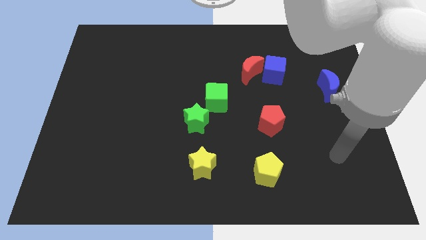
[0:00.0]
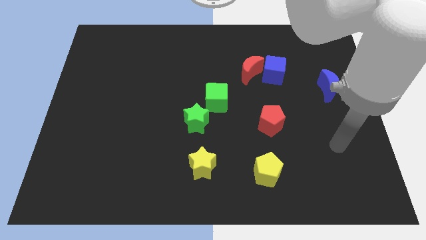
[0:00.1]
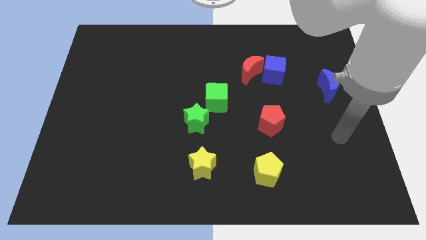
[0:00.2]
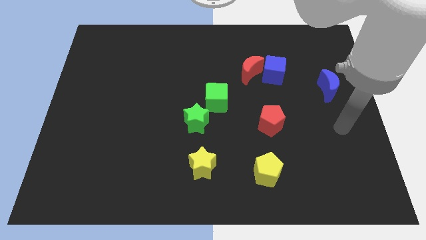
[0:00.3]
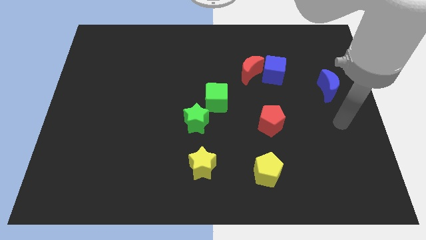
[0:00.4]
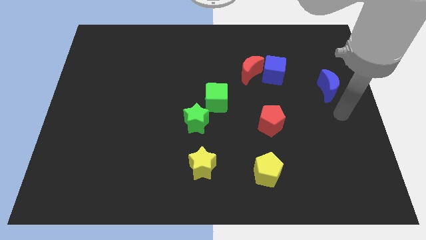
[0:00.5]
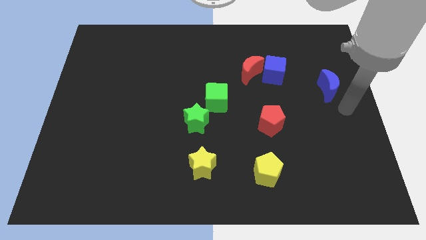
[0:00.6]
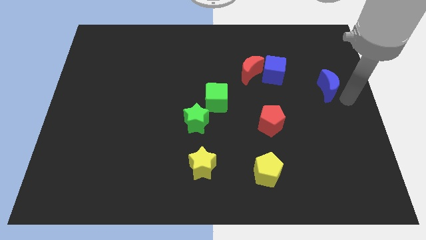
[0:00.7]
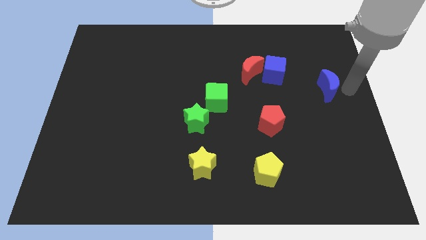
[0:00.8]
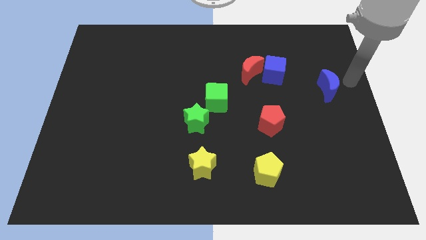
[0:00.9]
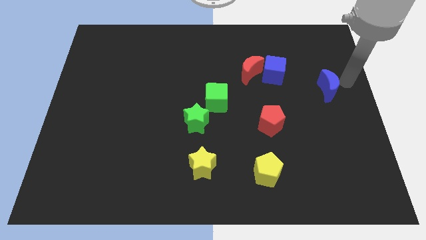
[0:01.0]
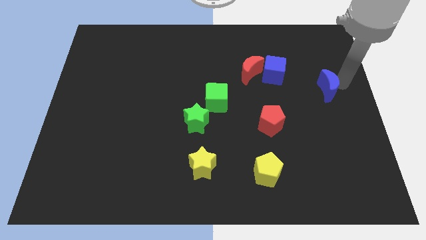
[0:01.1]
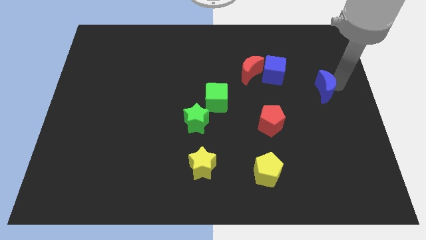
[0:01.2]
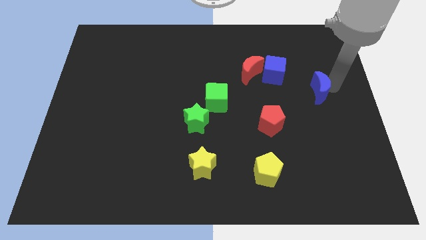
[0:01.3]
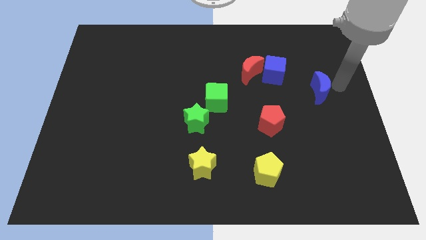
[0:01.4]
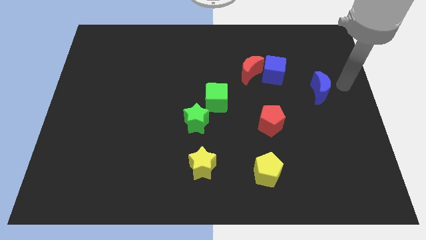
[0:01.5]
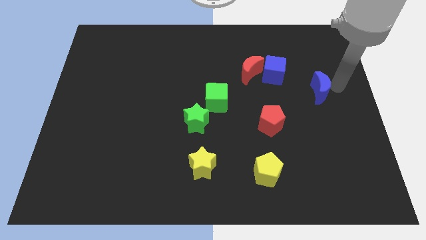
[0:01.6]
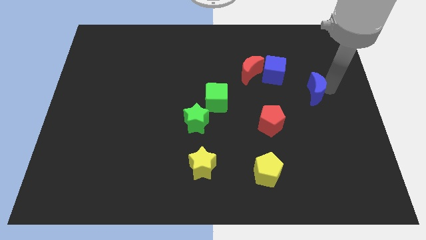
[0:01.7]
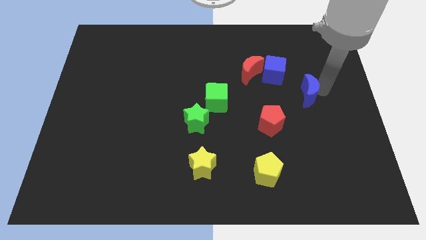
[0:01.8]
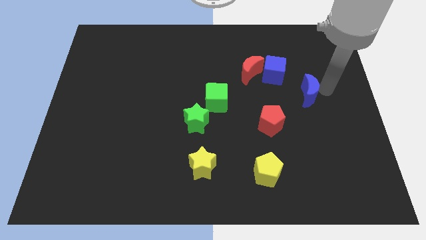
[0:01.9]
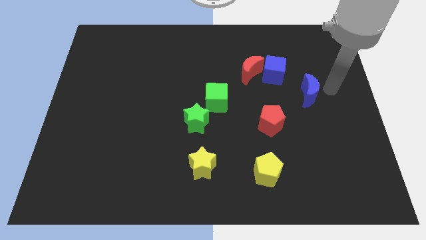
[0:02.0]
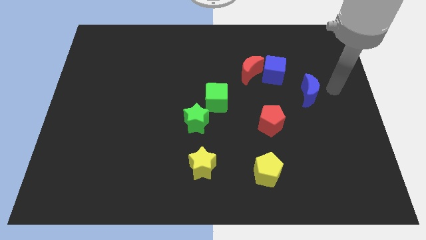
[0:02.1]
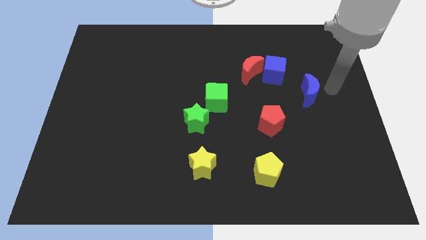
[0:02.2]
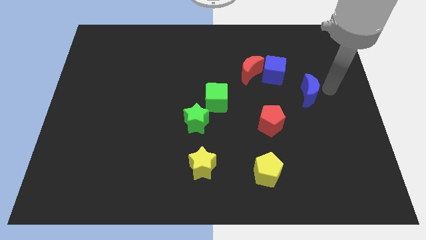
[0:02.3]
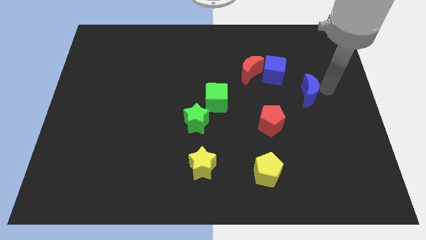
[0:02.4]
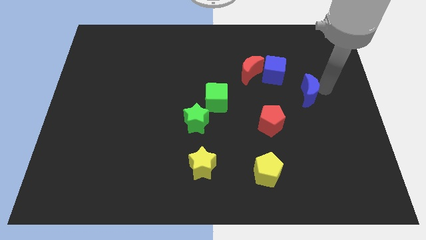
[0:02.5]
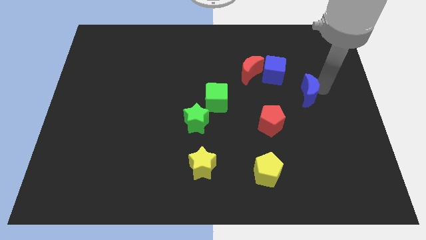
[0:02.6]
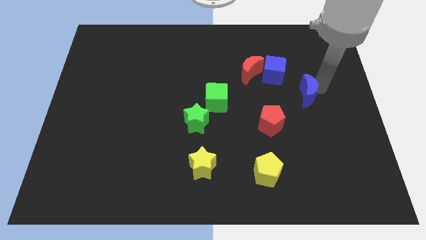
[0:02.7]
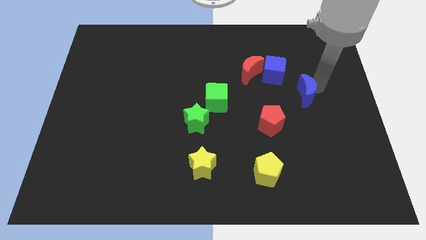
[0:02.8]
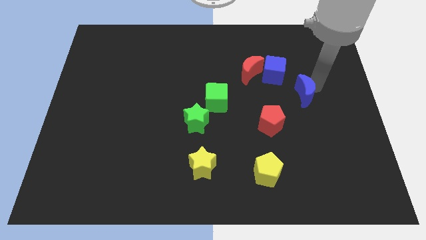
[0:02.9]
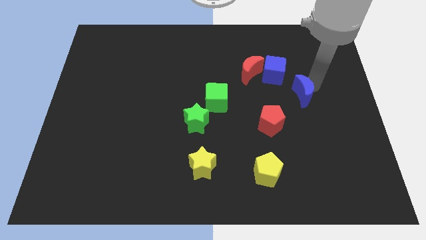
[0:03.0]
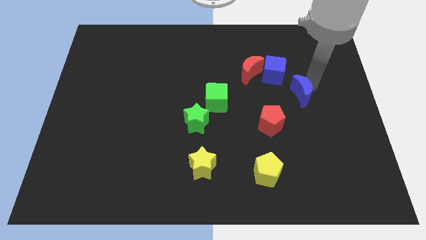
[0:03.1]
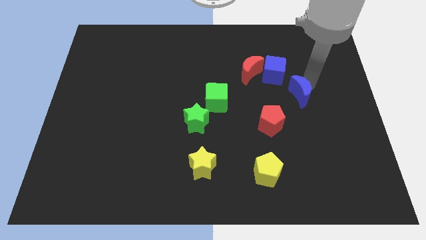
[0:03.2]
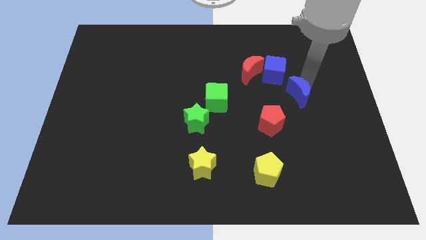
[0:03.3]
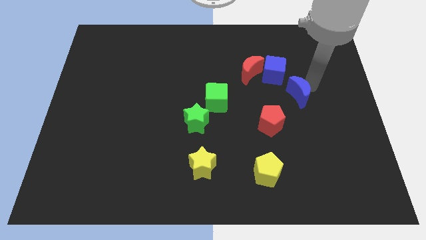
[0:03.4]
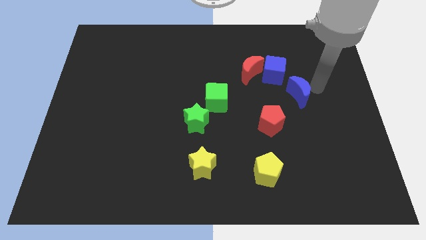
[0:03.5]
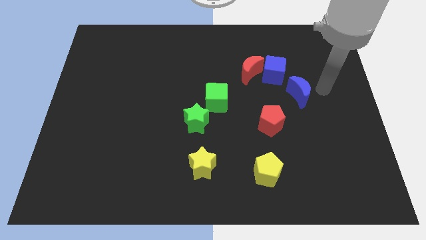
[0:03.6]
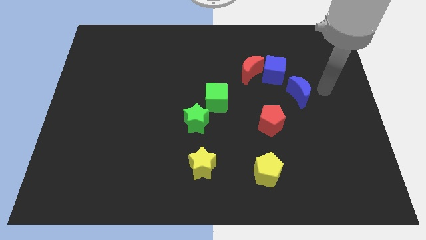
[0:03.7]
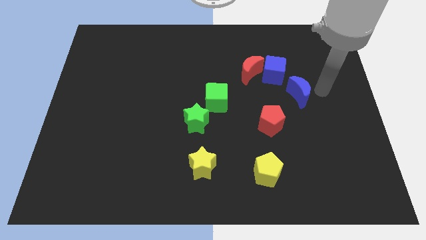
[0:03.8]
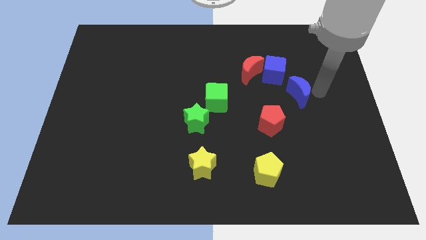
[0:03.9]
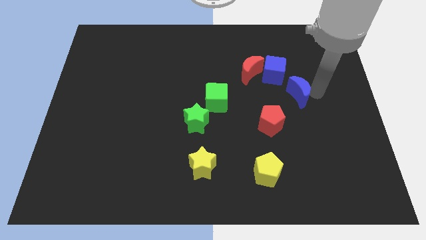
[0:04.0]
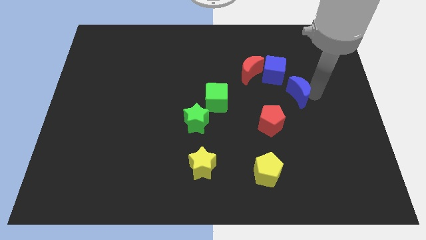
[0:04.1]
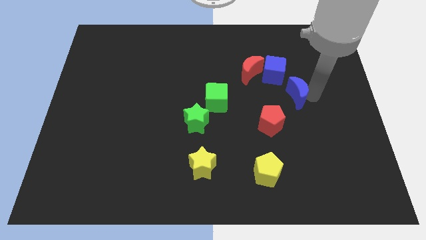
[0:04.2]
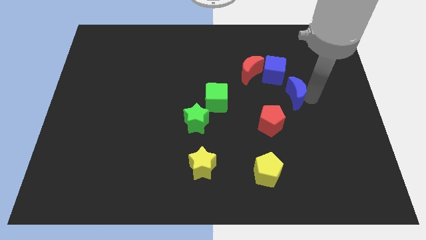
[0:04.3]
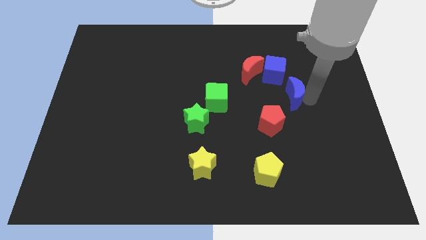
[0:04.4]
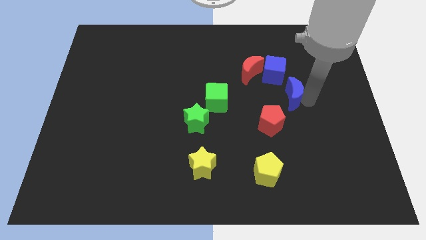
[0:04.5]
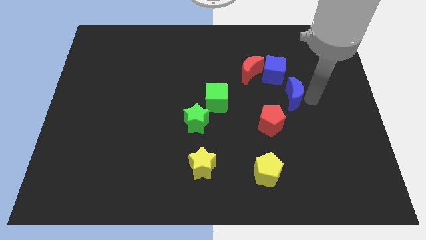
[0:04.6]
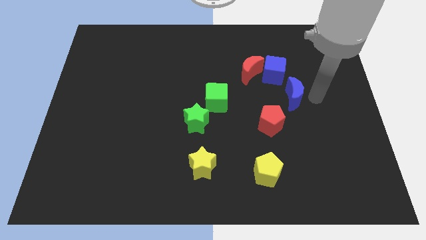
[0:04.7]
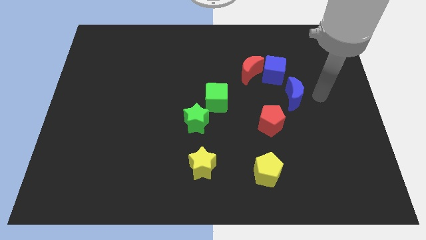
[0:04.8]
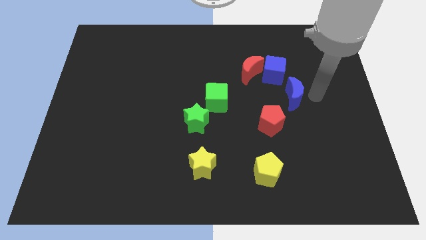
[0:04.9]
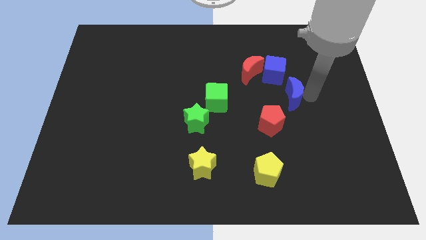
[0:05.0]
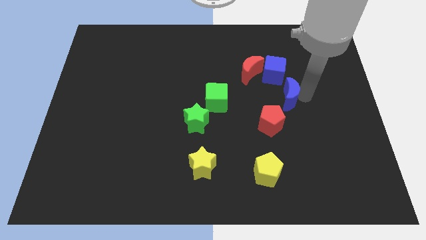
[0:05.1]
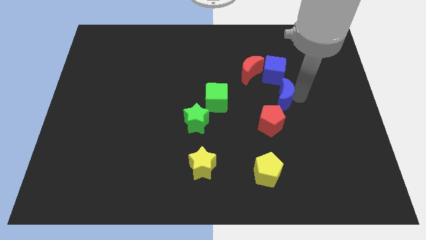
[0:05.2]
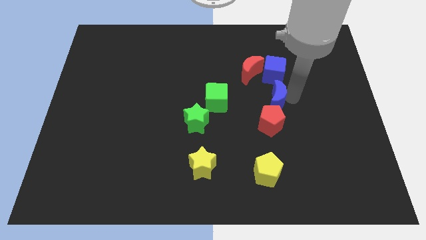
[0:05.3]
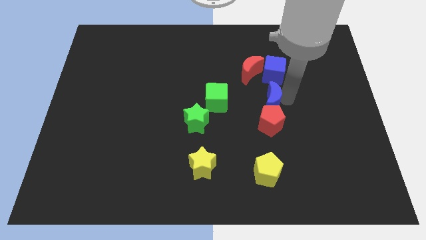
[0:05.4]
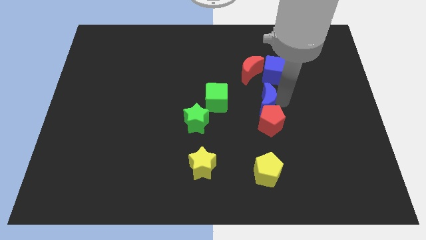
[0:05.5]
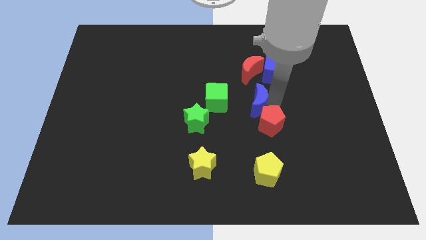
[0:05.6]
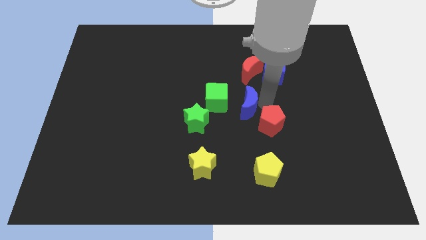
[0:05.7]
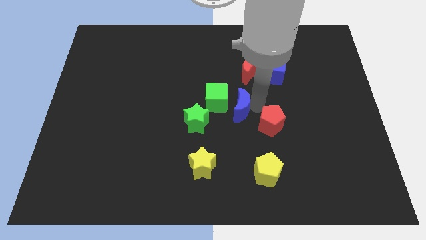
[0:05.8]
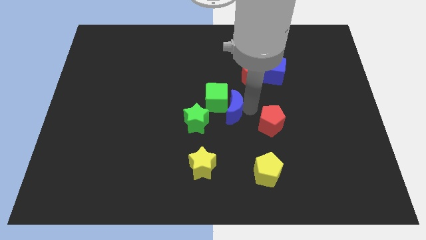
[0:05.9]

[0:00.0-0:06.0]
slide the blue moon next to the green cube

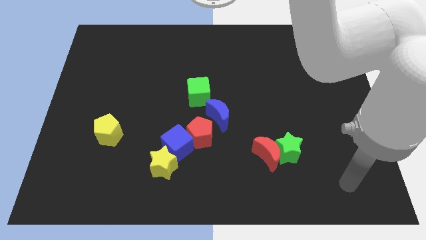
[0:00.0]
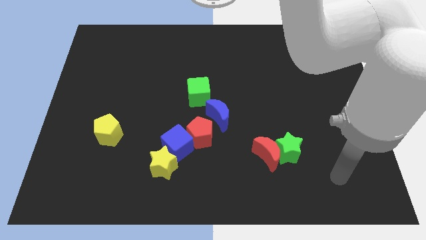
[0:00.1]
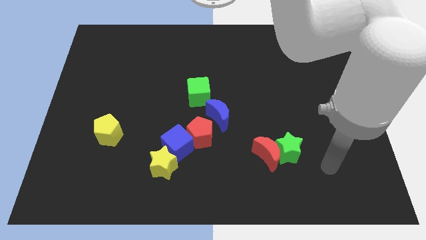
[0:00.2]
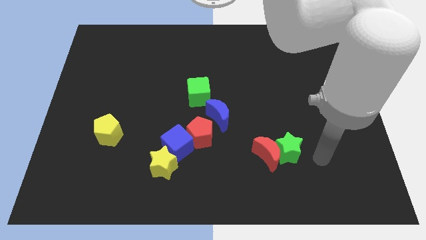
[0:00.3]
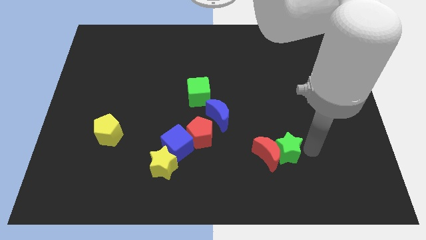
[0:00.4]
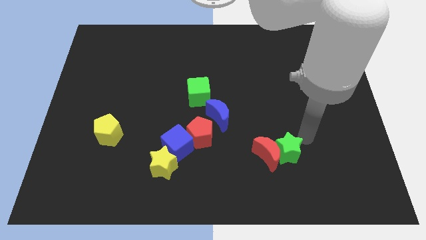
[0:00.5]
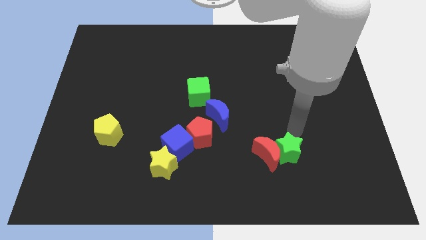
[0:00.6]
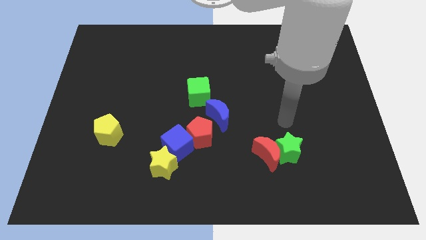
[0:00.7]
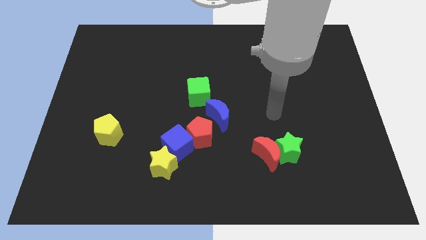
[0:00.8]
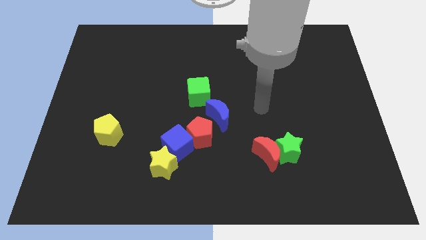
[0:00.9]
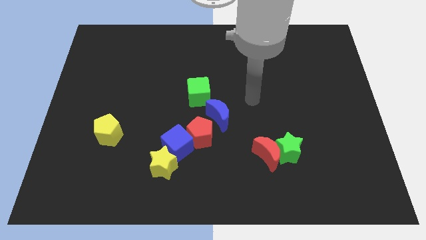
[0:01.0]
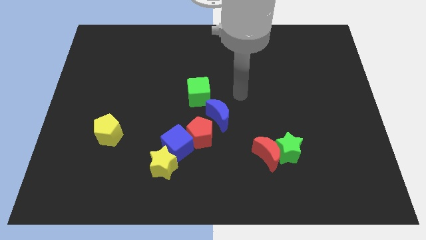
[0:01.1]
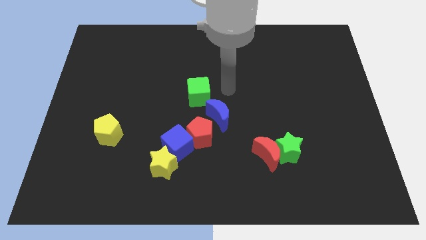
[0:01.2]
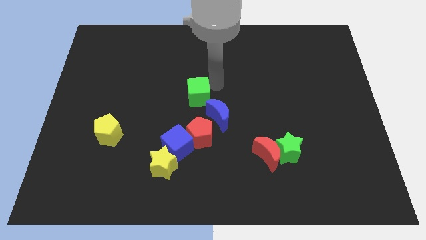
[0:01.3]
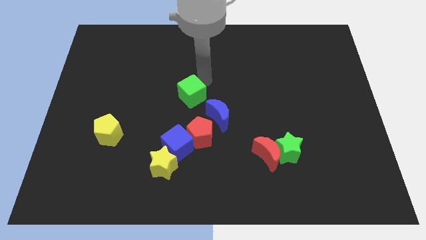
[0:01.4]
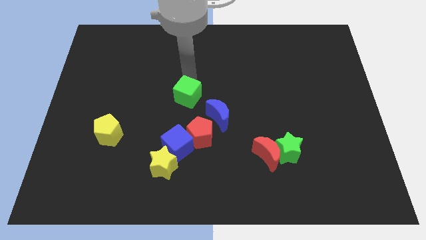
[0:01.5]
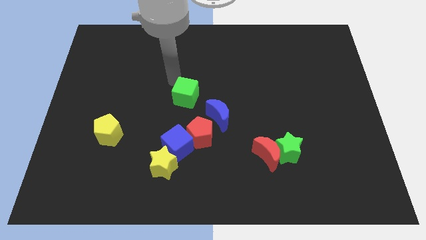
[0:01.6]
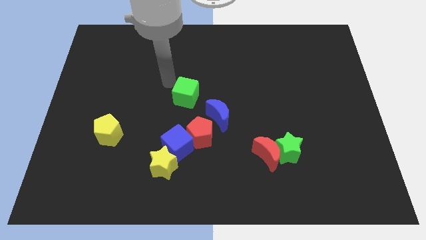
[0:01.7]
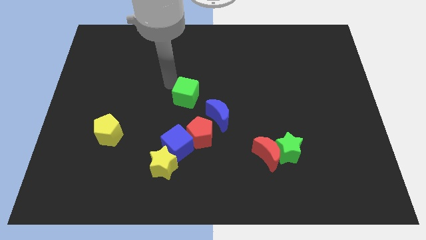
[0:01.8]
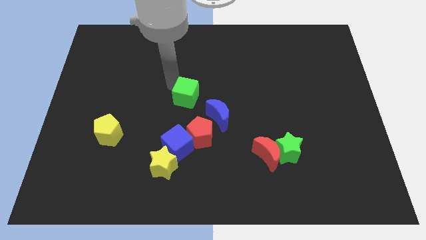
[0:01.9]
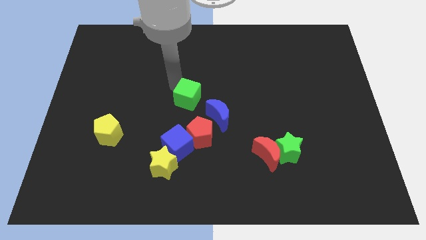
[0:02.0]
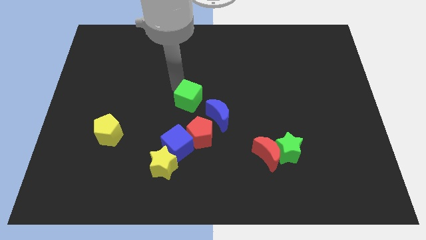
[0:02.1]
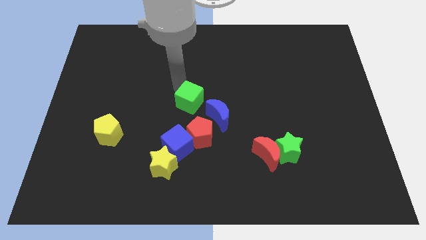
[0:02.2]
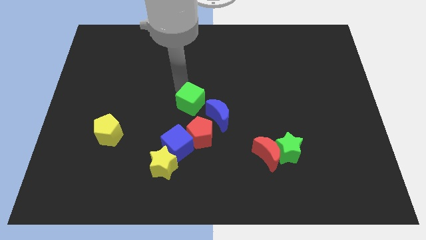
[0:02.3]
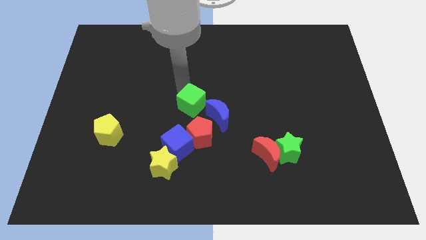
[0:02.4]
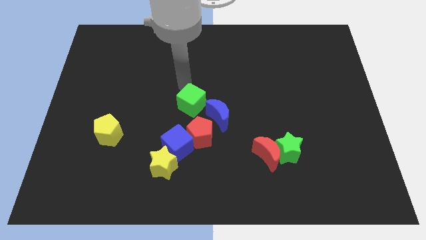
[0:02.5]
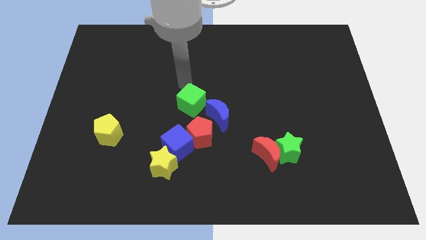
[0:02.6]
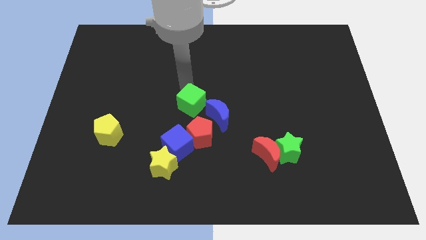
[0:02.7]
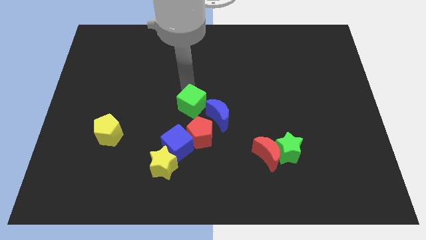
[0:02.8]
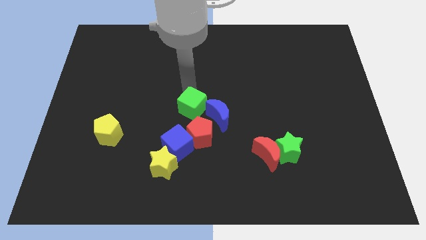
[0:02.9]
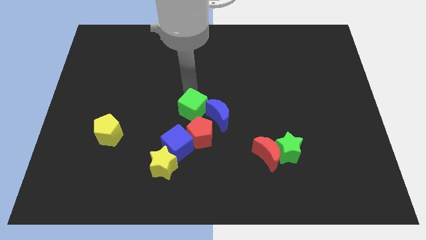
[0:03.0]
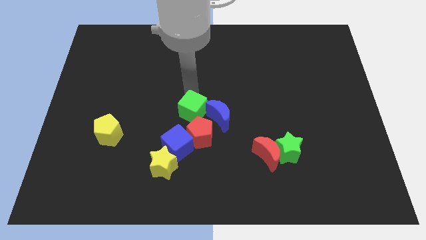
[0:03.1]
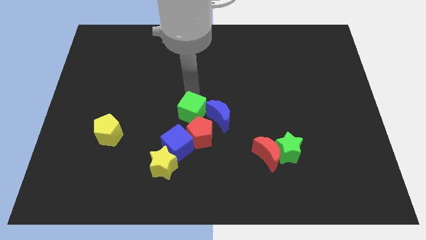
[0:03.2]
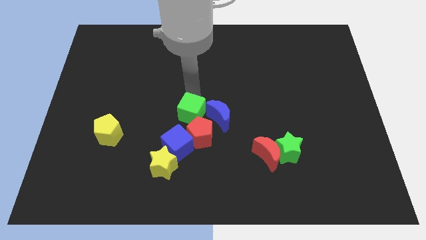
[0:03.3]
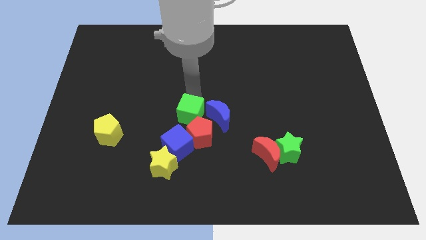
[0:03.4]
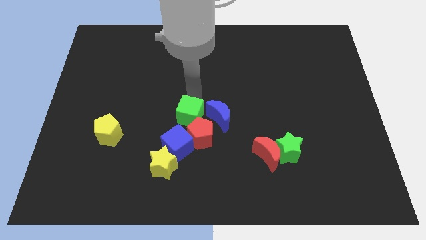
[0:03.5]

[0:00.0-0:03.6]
move the green cube to the red pentagon
